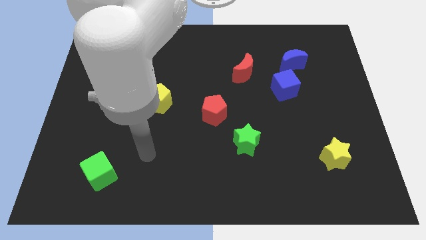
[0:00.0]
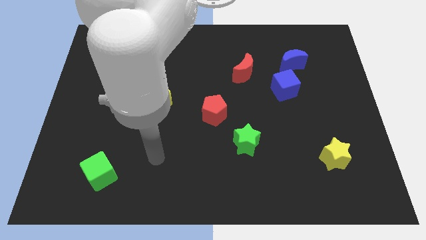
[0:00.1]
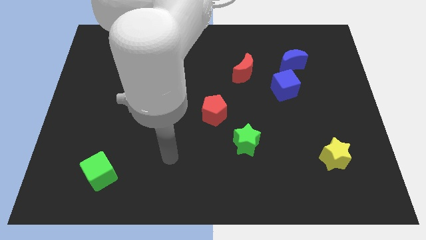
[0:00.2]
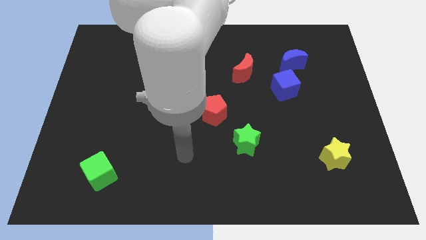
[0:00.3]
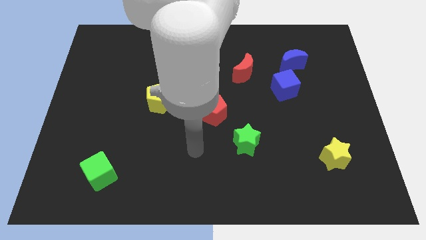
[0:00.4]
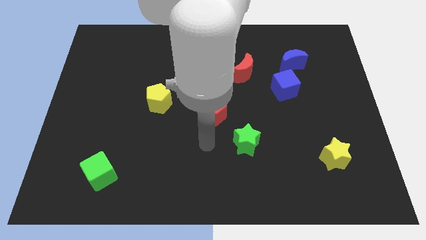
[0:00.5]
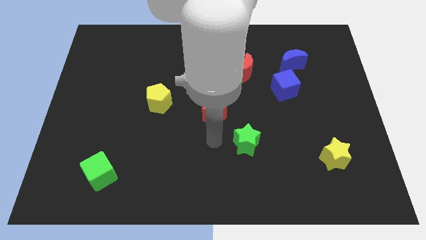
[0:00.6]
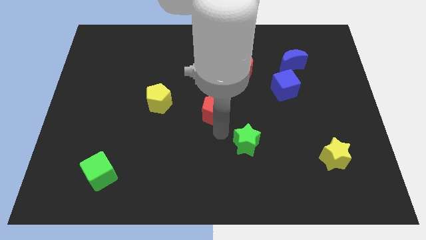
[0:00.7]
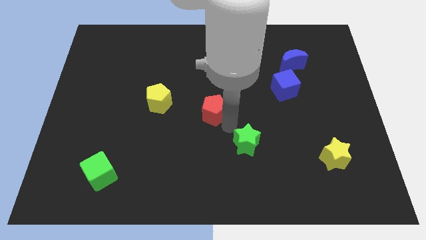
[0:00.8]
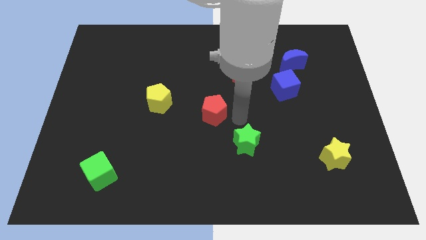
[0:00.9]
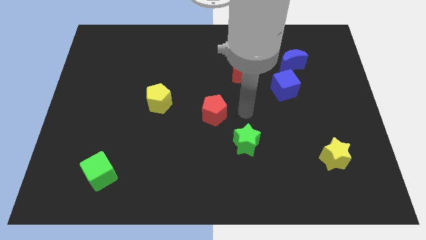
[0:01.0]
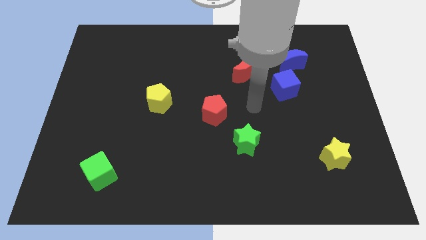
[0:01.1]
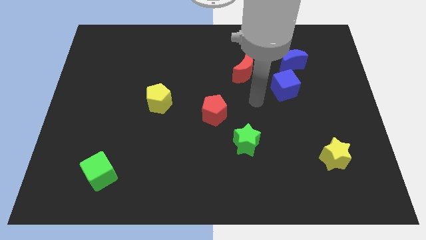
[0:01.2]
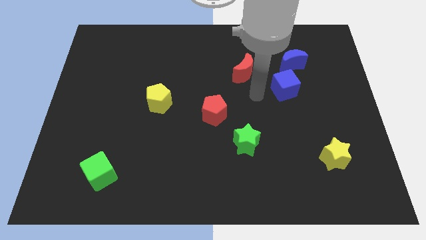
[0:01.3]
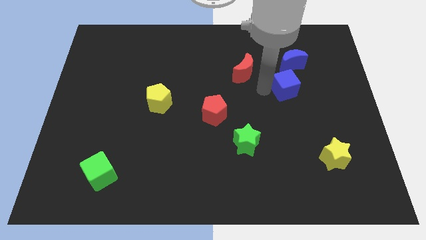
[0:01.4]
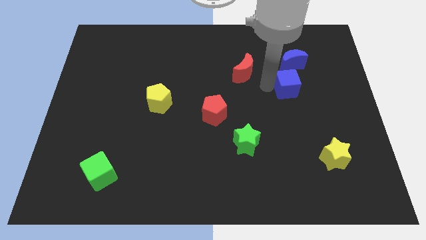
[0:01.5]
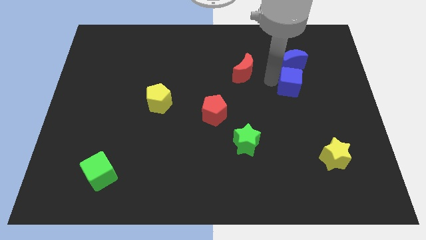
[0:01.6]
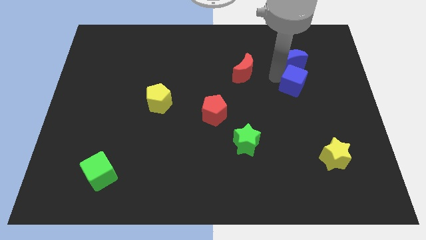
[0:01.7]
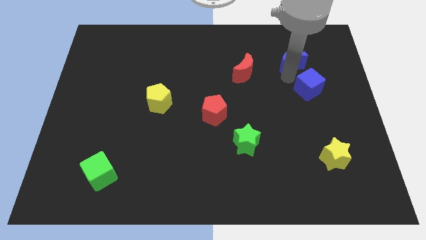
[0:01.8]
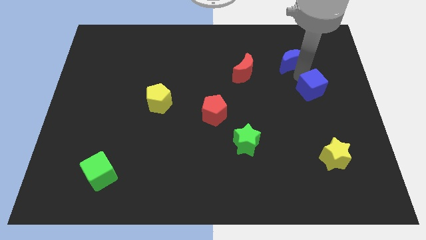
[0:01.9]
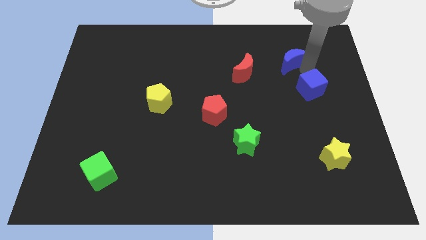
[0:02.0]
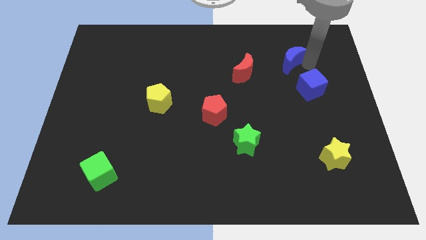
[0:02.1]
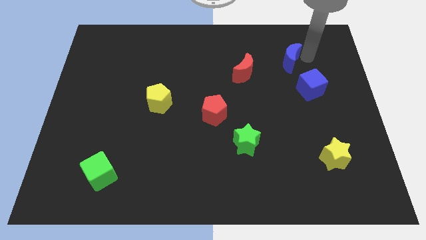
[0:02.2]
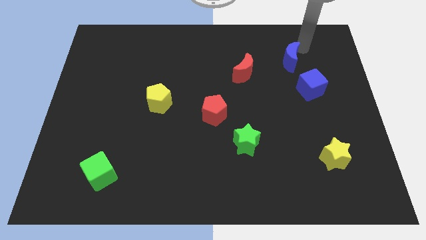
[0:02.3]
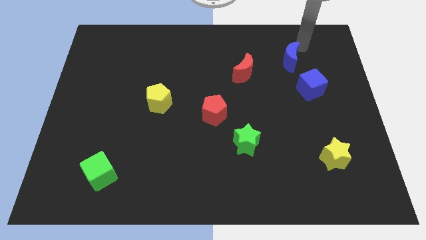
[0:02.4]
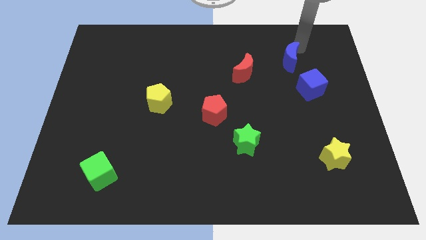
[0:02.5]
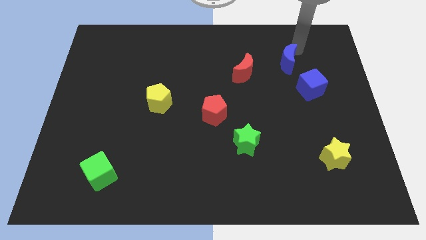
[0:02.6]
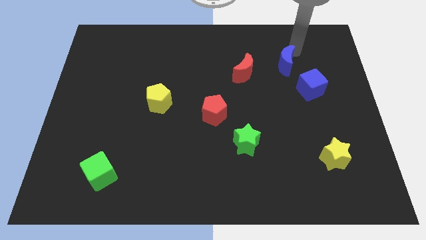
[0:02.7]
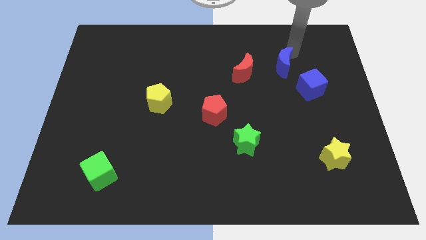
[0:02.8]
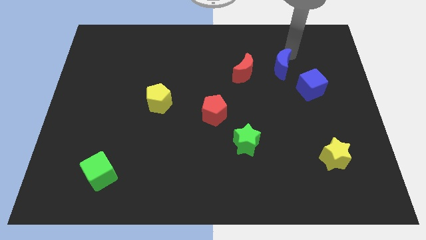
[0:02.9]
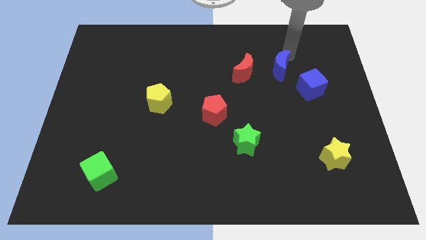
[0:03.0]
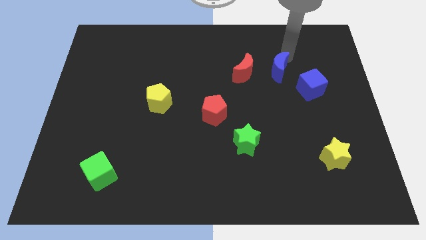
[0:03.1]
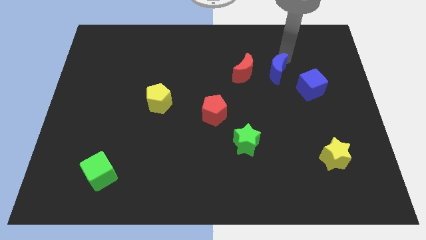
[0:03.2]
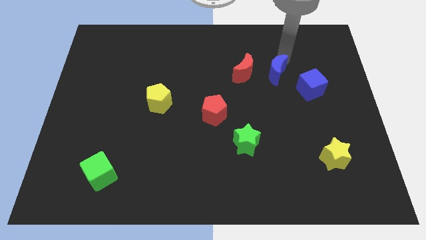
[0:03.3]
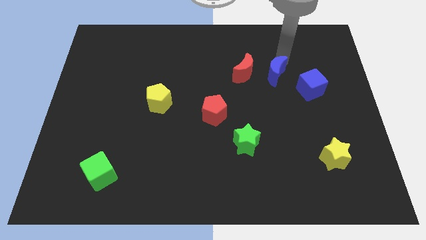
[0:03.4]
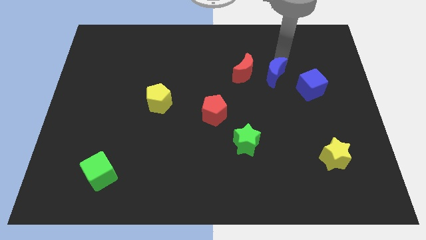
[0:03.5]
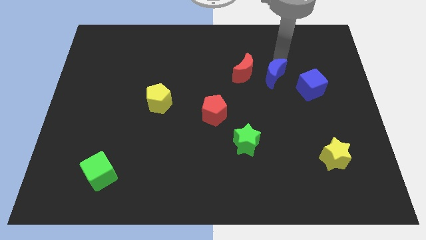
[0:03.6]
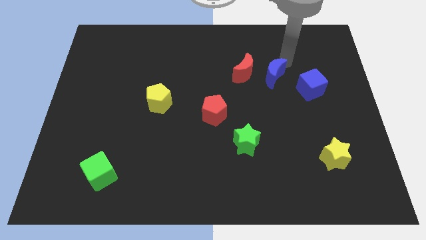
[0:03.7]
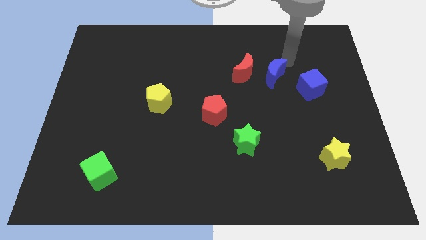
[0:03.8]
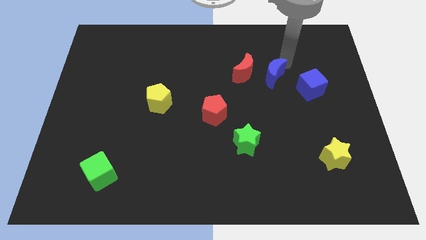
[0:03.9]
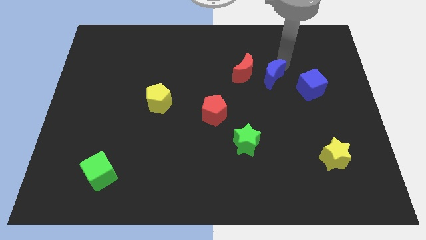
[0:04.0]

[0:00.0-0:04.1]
slightly push the blue moon downwards and then left

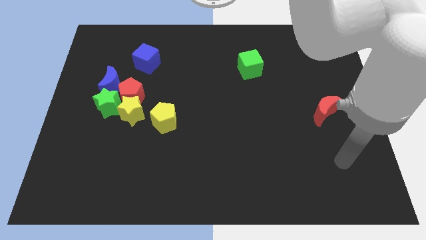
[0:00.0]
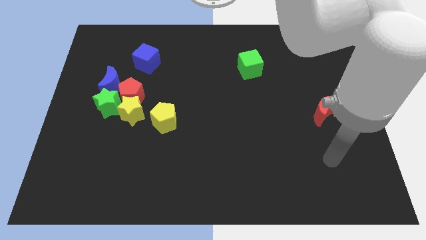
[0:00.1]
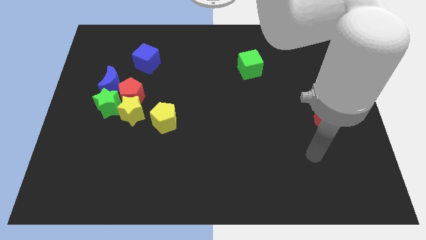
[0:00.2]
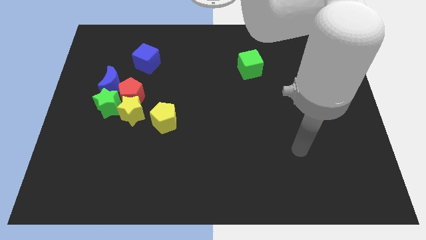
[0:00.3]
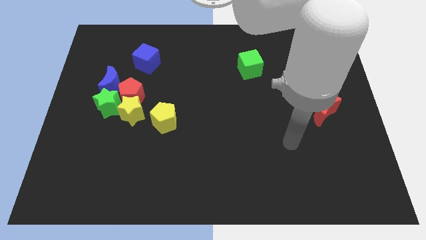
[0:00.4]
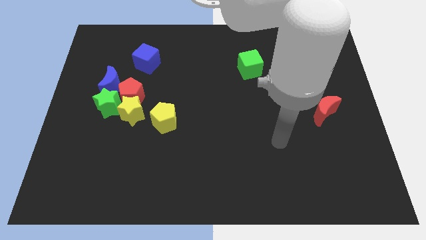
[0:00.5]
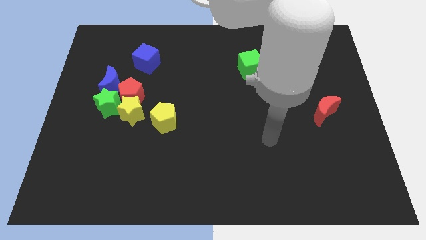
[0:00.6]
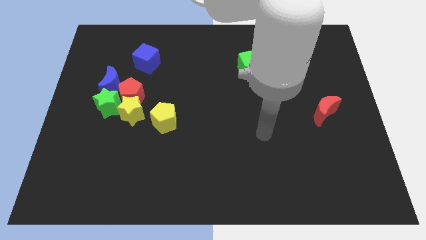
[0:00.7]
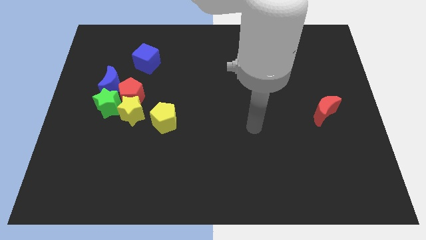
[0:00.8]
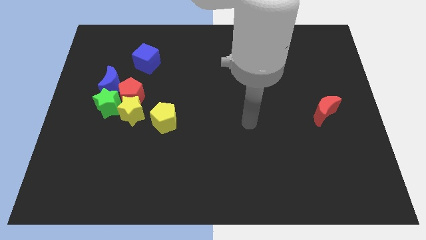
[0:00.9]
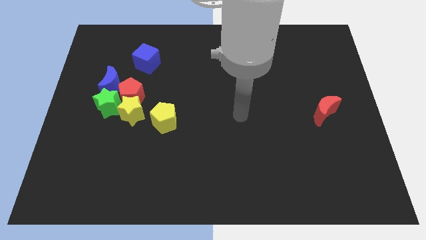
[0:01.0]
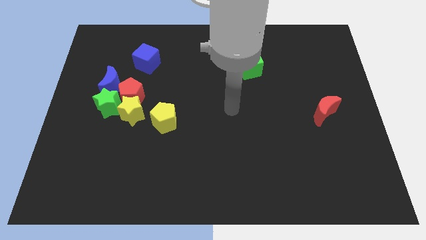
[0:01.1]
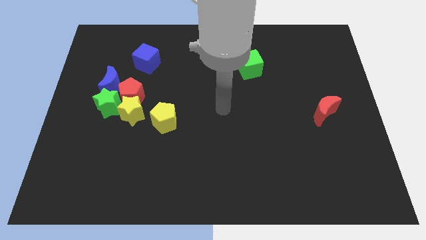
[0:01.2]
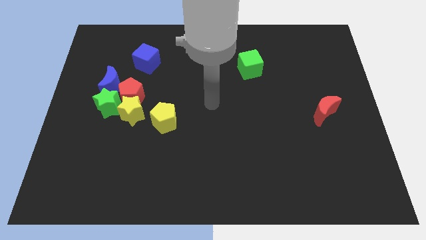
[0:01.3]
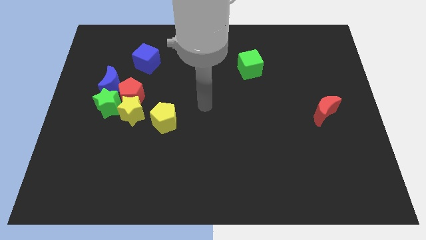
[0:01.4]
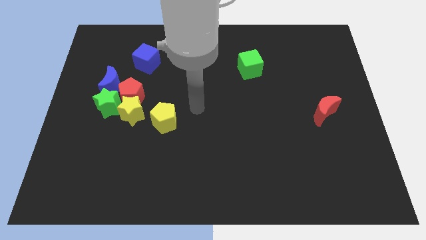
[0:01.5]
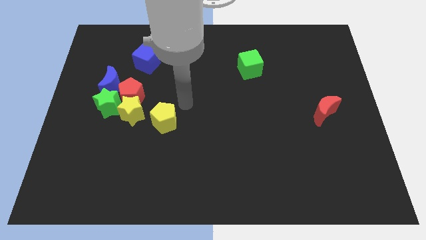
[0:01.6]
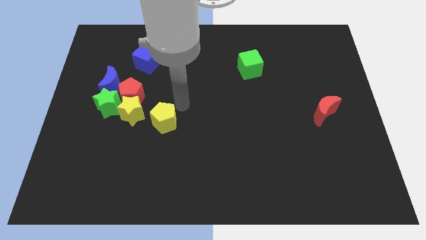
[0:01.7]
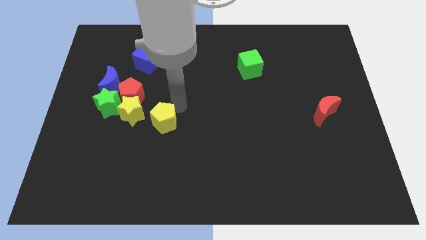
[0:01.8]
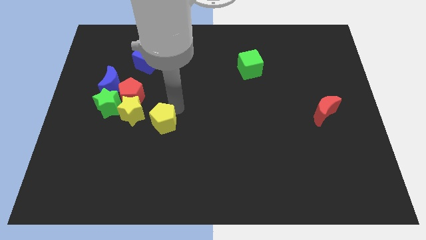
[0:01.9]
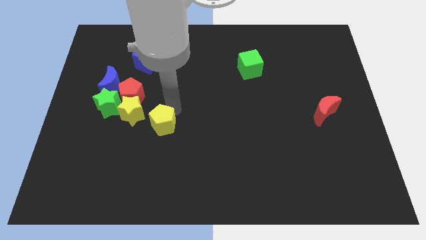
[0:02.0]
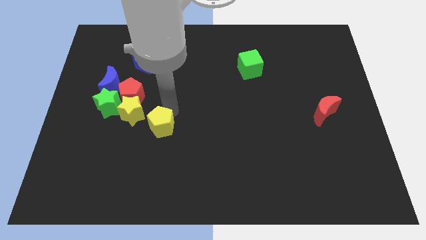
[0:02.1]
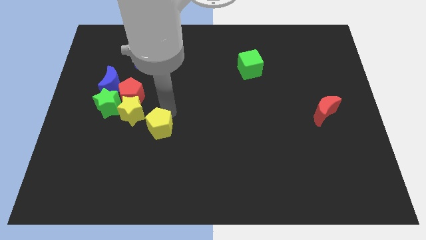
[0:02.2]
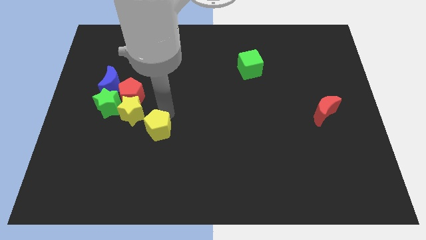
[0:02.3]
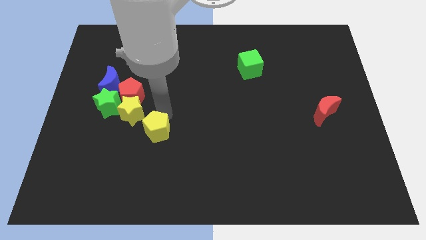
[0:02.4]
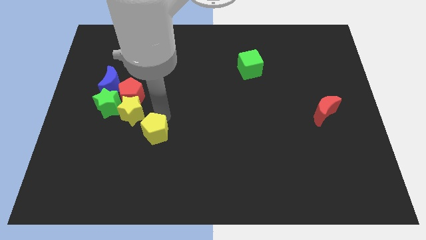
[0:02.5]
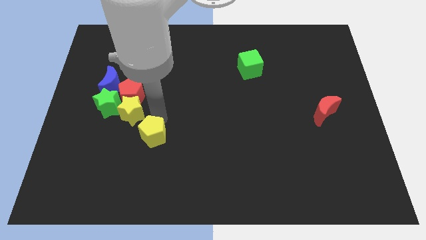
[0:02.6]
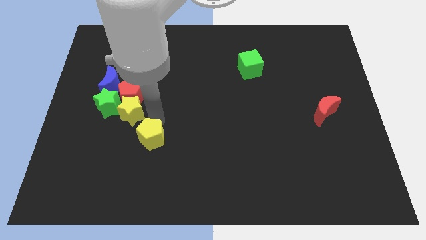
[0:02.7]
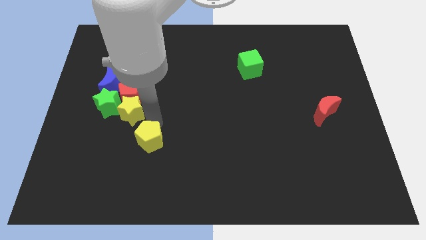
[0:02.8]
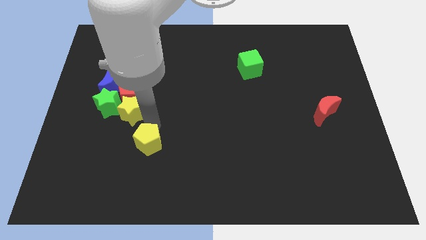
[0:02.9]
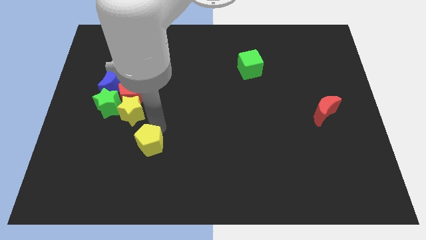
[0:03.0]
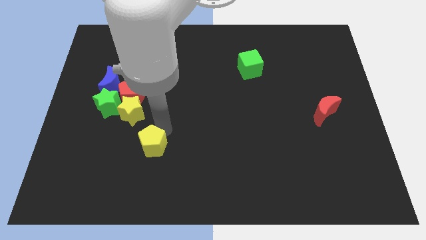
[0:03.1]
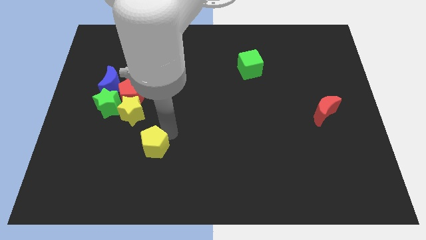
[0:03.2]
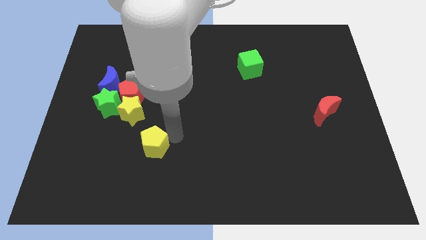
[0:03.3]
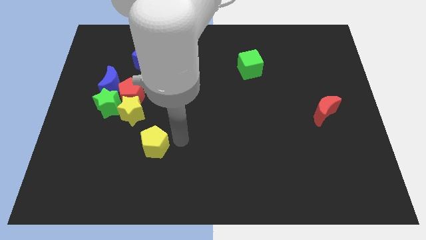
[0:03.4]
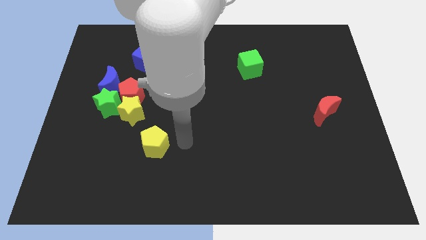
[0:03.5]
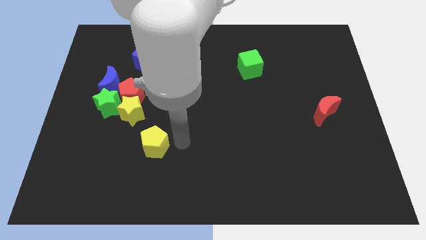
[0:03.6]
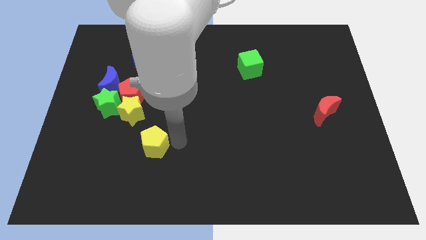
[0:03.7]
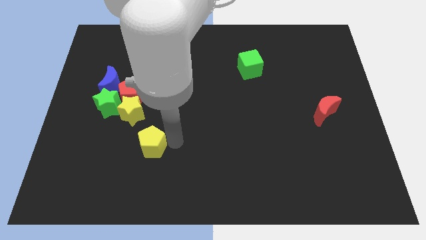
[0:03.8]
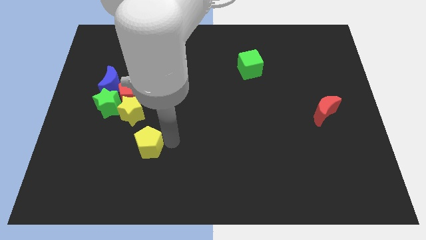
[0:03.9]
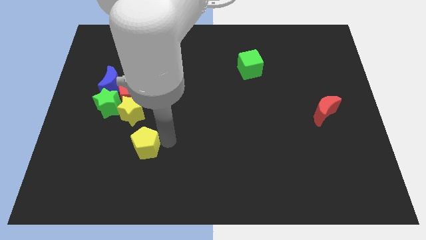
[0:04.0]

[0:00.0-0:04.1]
slightly move the yellow pentagon down and left
